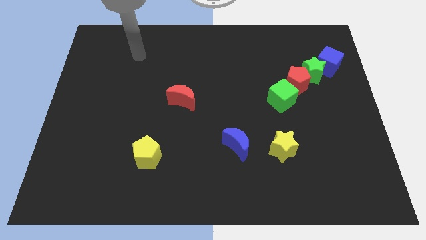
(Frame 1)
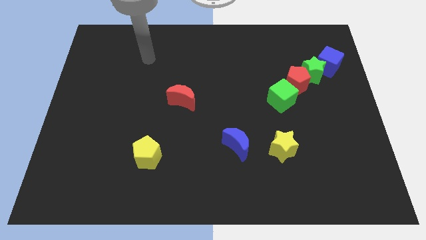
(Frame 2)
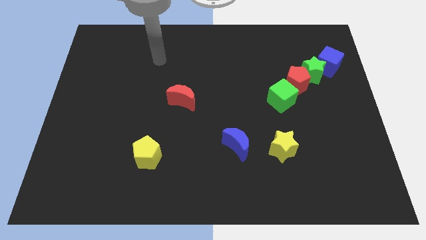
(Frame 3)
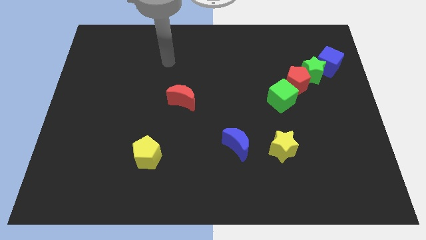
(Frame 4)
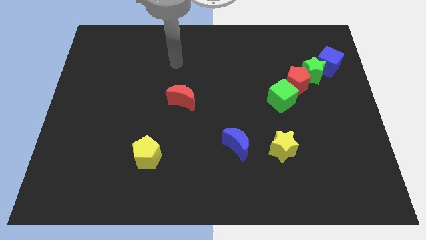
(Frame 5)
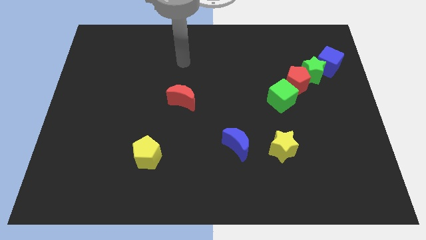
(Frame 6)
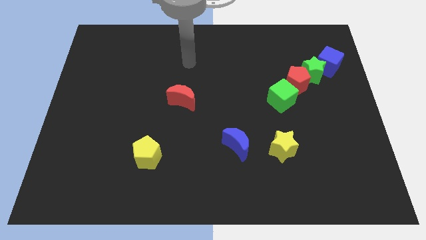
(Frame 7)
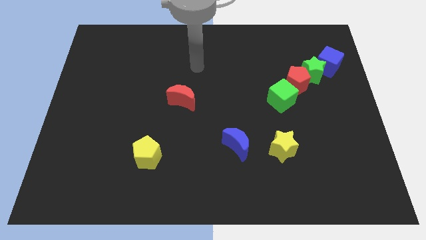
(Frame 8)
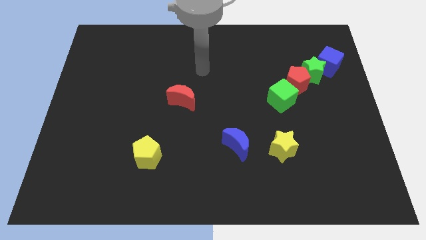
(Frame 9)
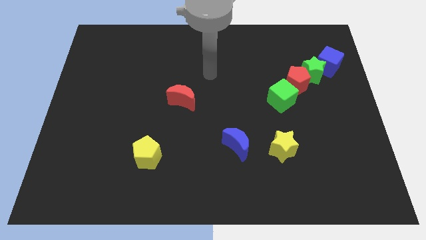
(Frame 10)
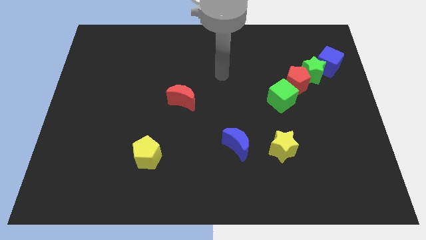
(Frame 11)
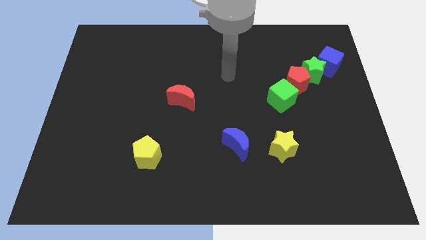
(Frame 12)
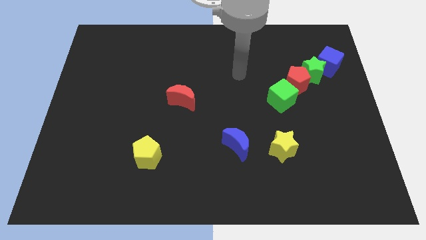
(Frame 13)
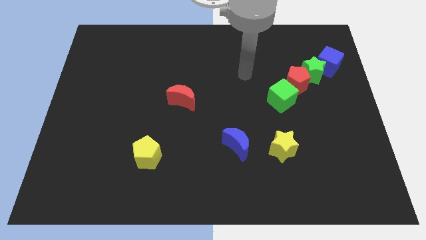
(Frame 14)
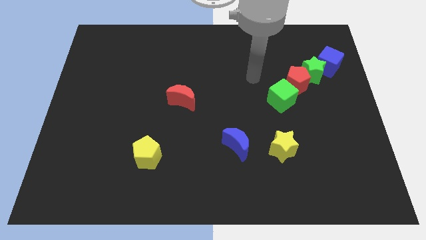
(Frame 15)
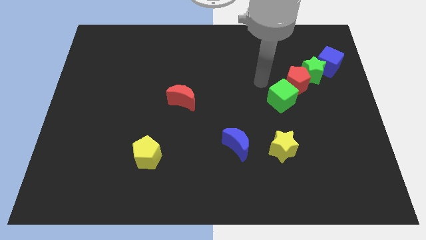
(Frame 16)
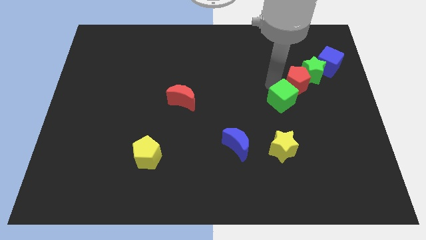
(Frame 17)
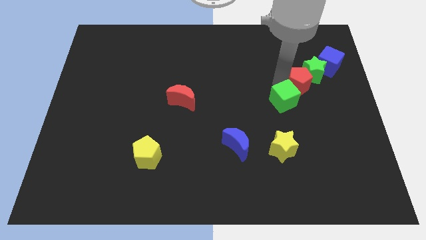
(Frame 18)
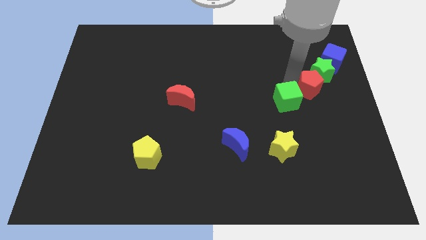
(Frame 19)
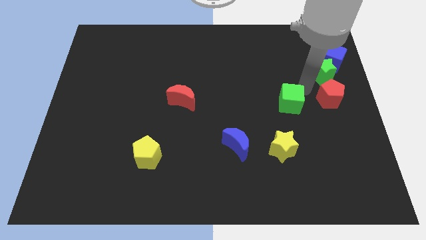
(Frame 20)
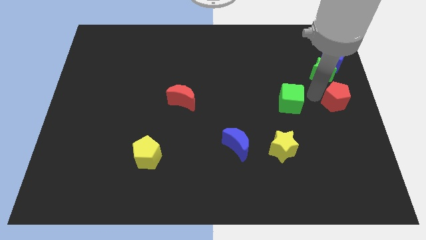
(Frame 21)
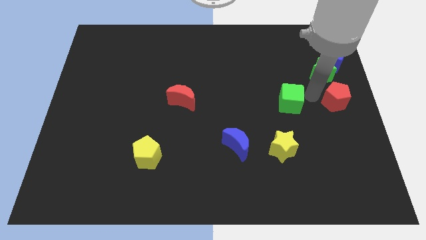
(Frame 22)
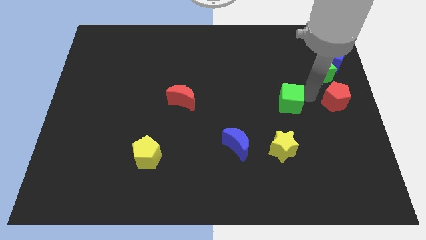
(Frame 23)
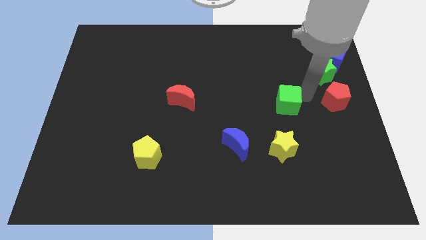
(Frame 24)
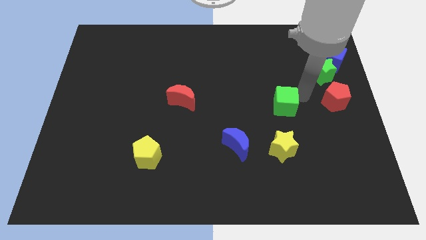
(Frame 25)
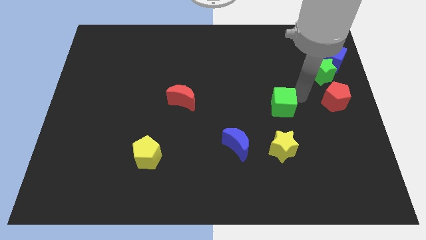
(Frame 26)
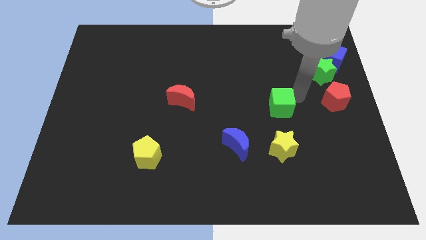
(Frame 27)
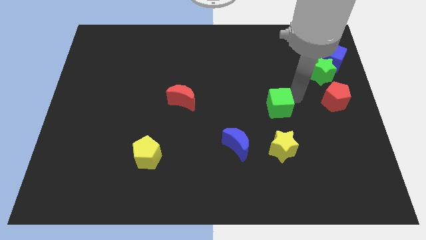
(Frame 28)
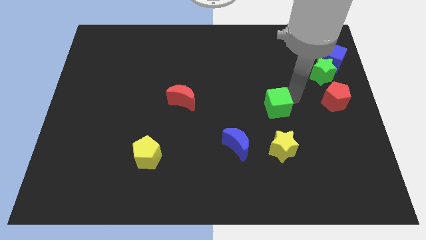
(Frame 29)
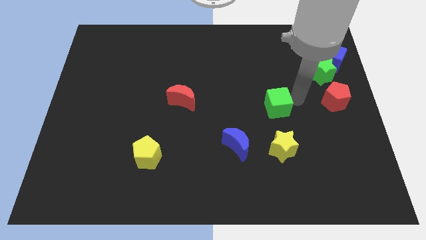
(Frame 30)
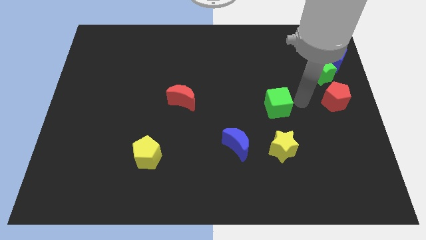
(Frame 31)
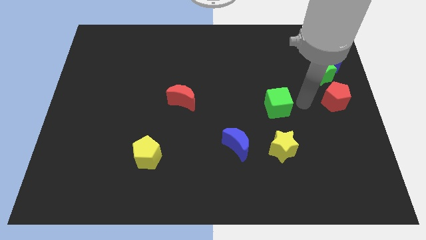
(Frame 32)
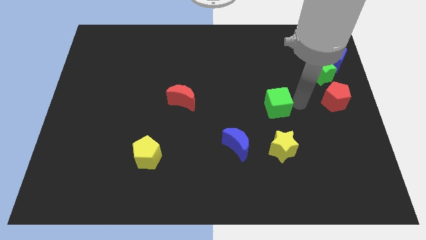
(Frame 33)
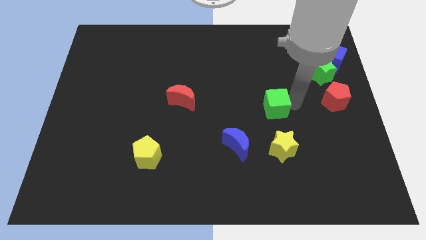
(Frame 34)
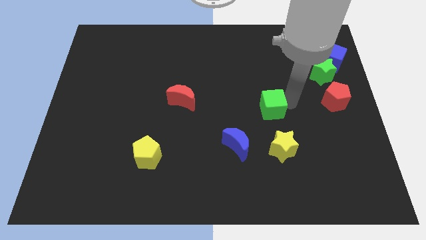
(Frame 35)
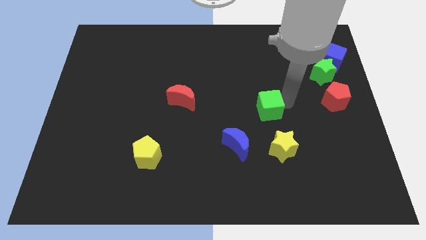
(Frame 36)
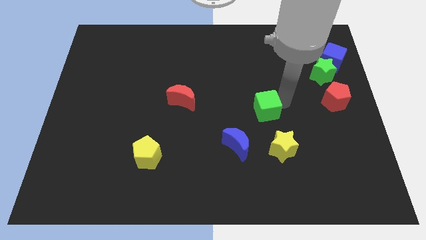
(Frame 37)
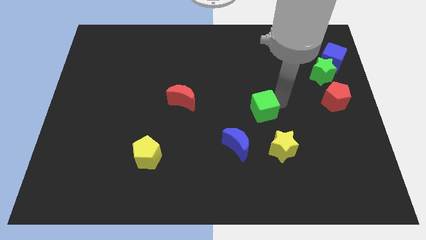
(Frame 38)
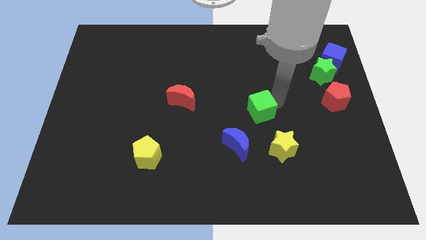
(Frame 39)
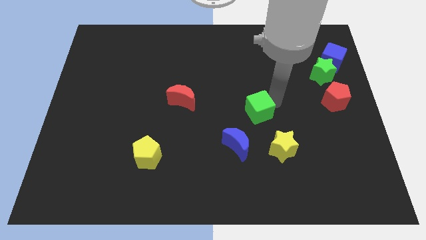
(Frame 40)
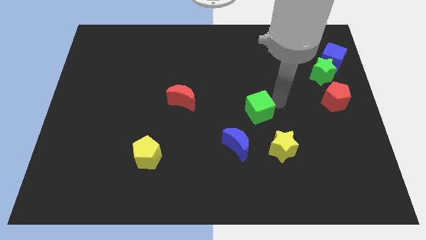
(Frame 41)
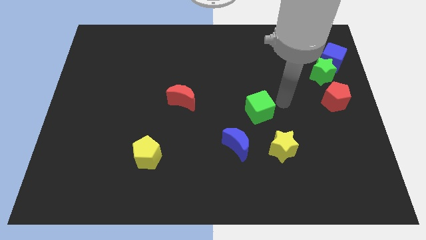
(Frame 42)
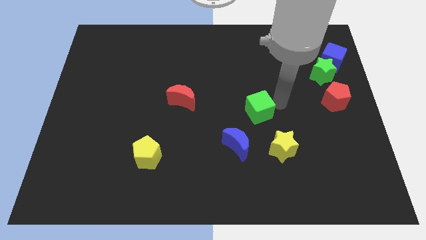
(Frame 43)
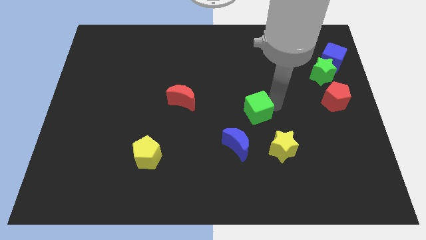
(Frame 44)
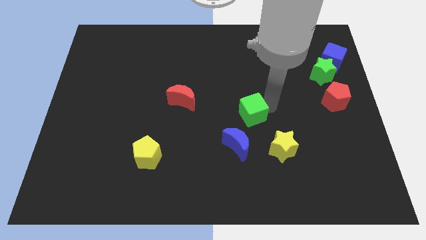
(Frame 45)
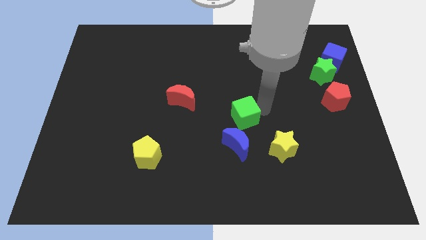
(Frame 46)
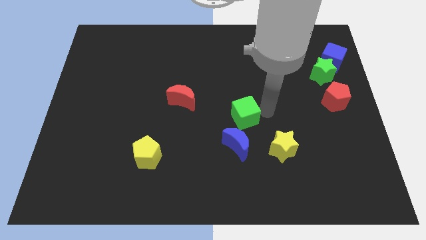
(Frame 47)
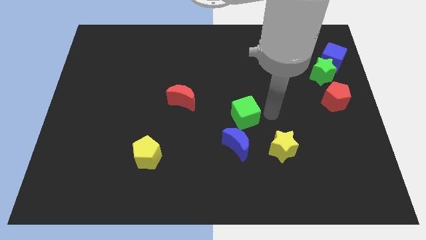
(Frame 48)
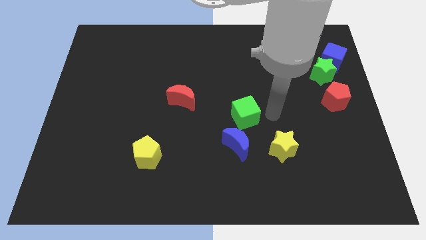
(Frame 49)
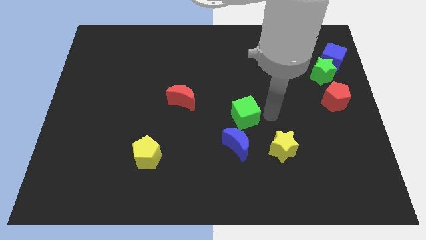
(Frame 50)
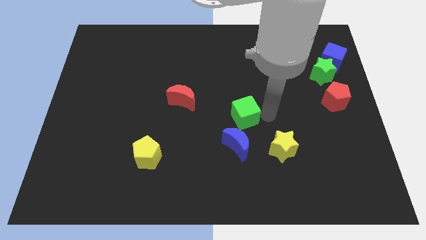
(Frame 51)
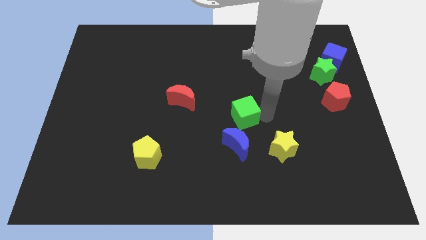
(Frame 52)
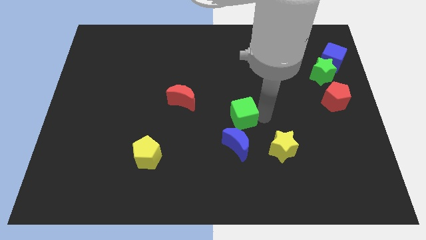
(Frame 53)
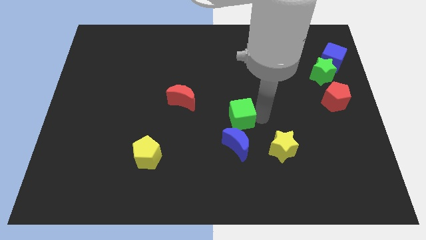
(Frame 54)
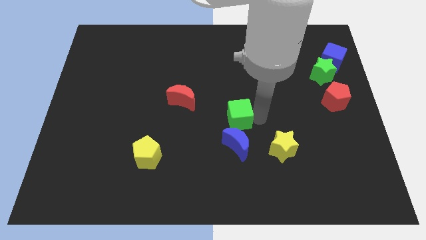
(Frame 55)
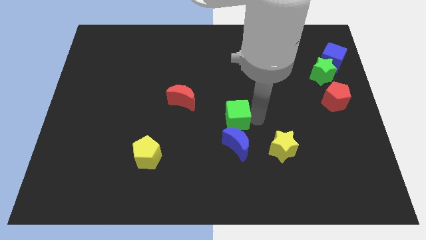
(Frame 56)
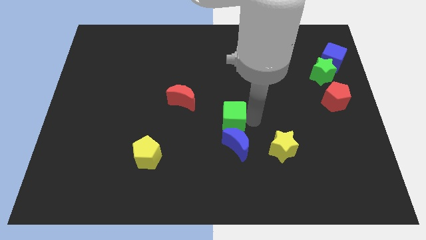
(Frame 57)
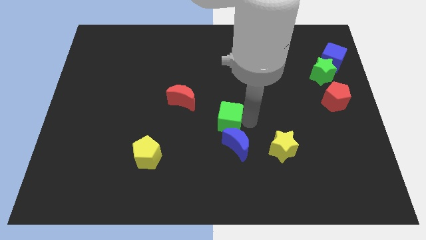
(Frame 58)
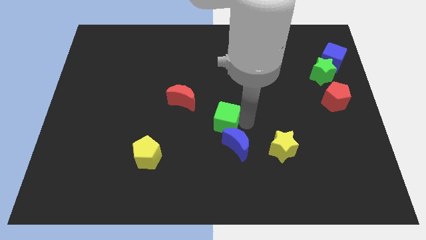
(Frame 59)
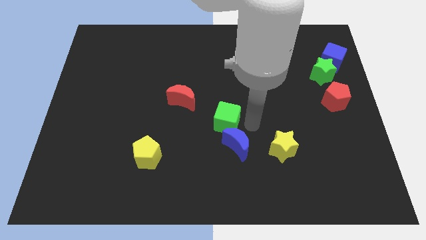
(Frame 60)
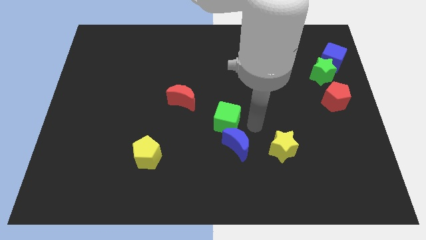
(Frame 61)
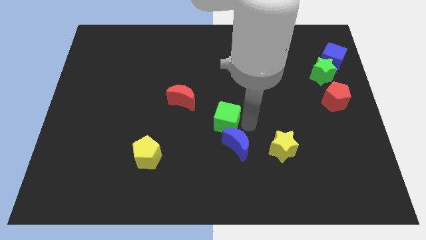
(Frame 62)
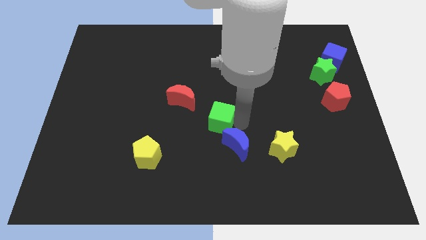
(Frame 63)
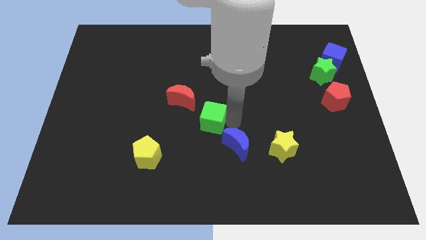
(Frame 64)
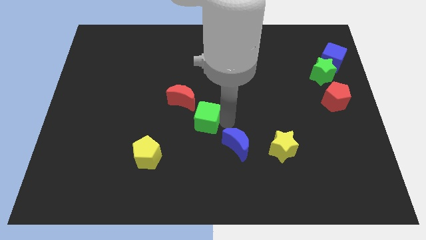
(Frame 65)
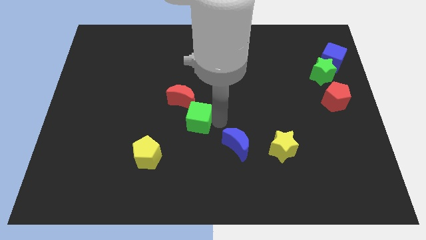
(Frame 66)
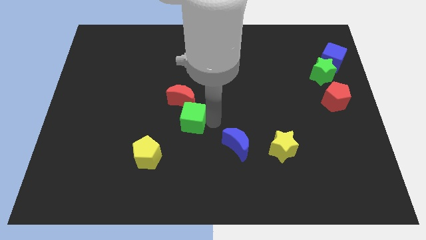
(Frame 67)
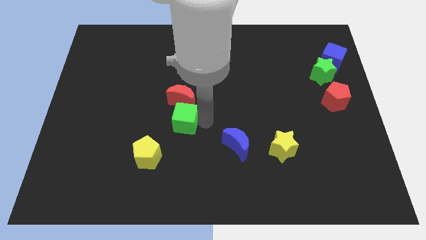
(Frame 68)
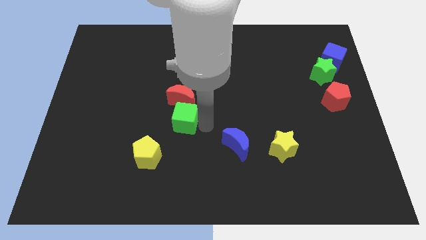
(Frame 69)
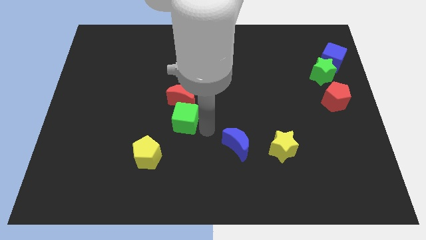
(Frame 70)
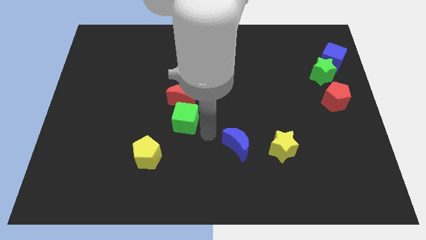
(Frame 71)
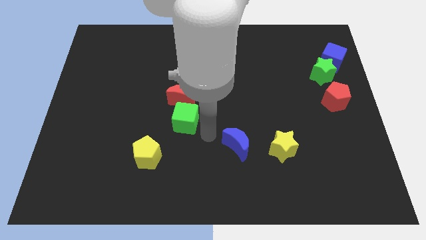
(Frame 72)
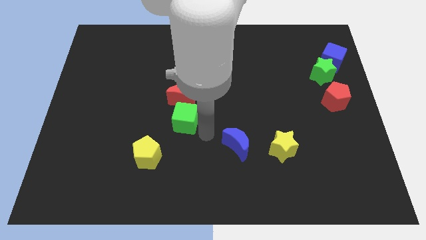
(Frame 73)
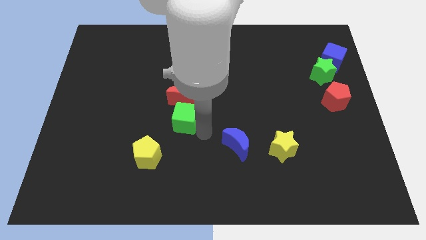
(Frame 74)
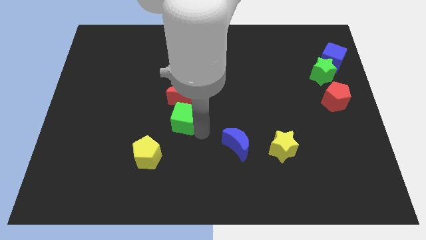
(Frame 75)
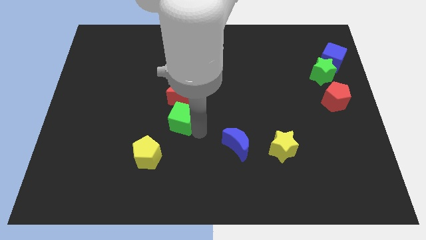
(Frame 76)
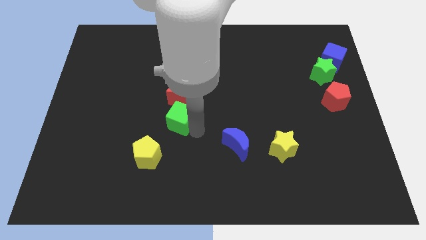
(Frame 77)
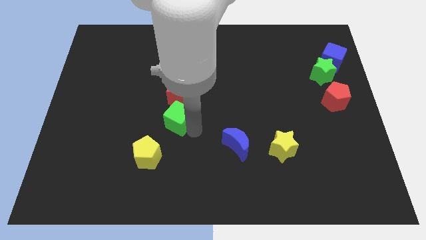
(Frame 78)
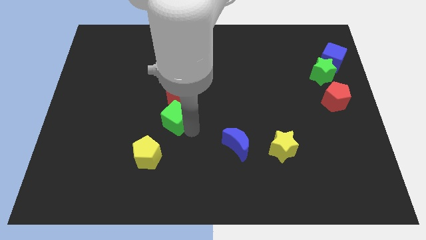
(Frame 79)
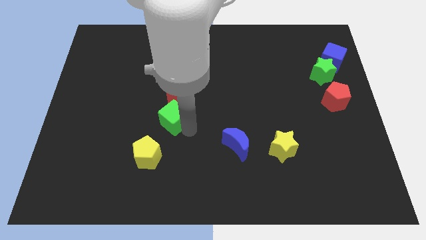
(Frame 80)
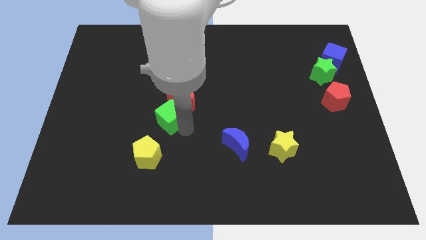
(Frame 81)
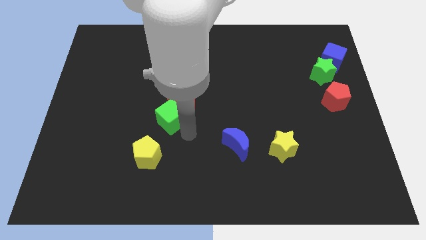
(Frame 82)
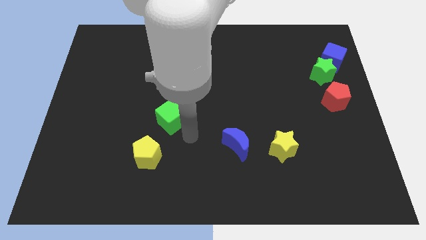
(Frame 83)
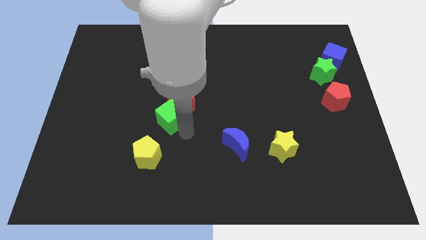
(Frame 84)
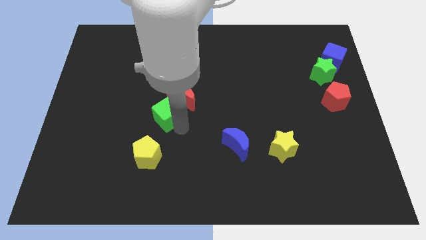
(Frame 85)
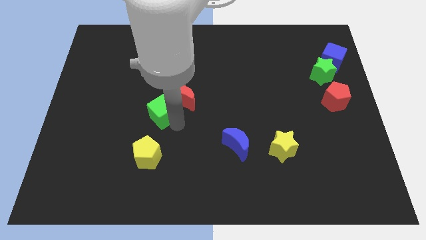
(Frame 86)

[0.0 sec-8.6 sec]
slide the green cube left of the red moon
